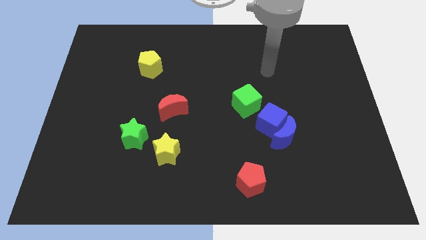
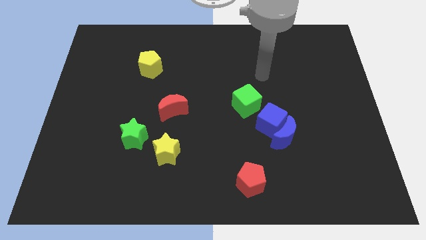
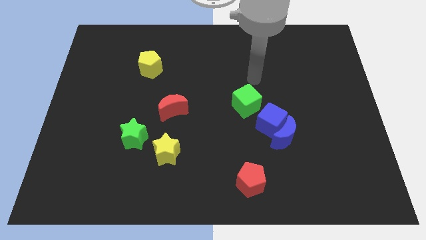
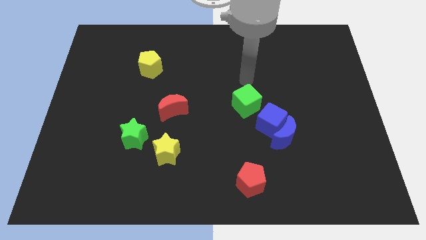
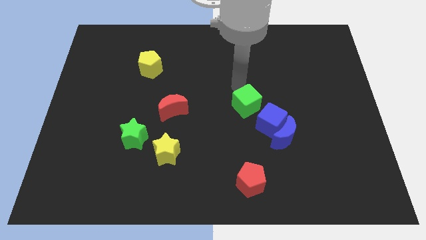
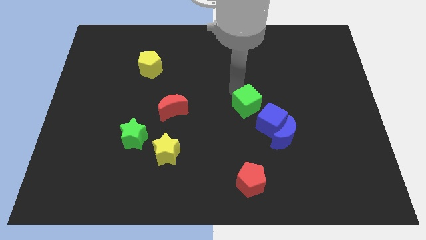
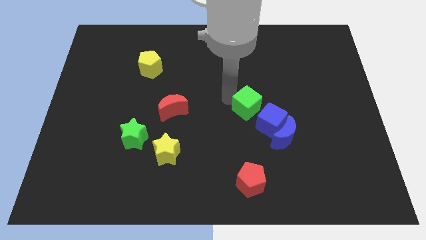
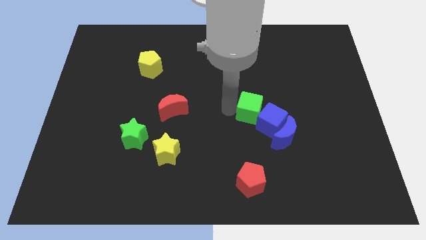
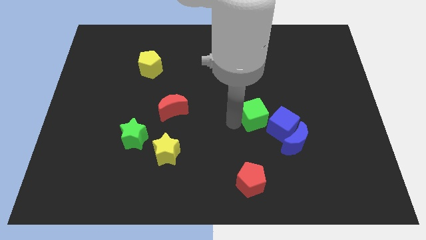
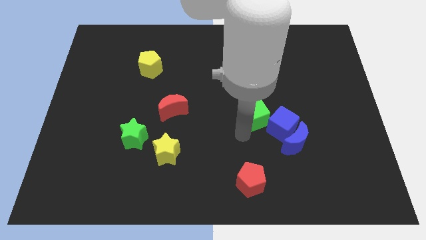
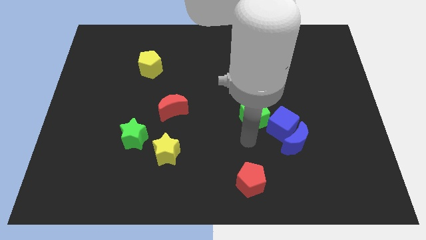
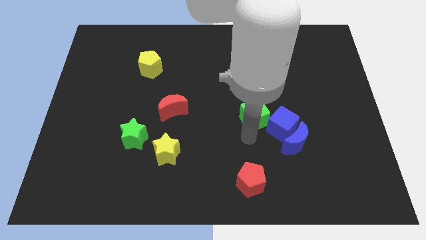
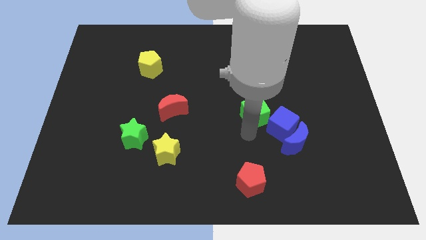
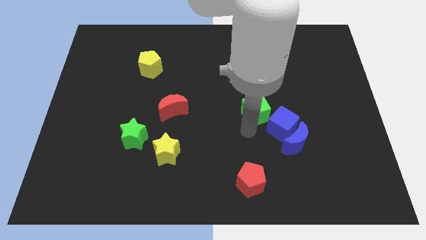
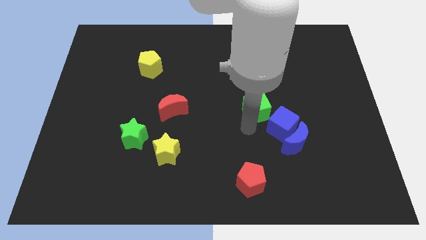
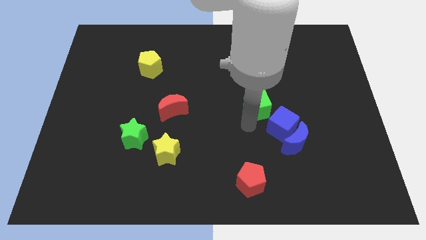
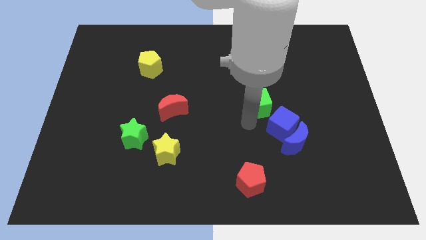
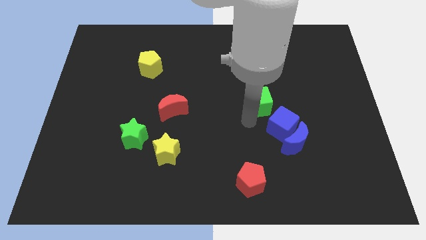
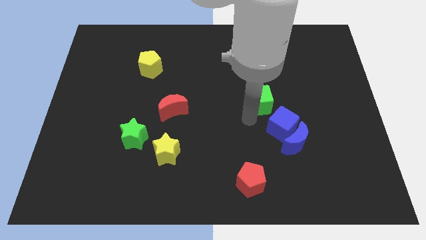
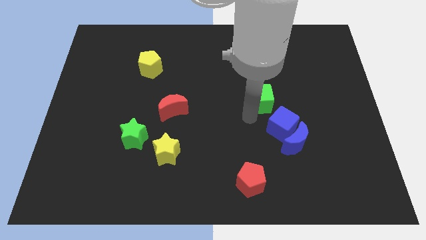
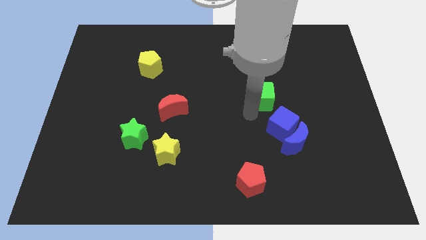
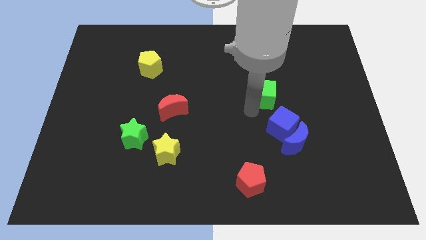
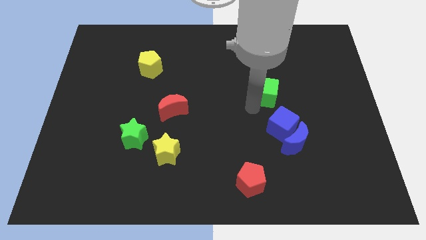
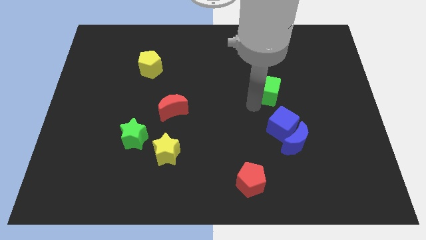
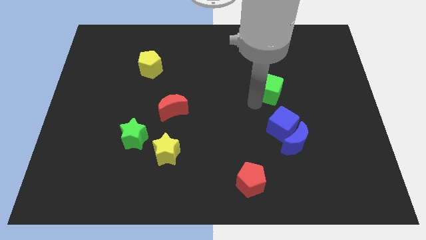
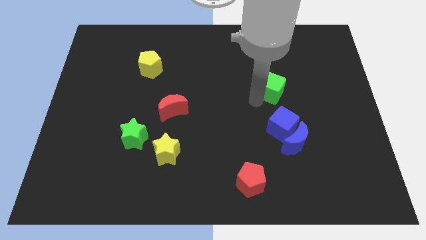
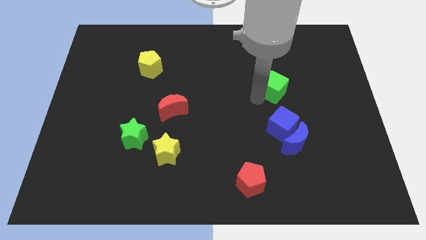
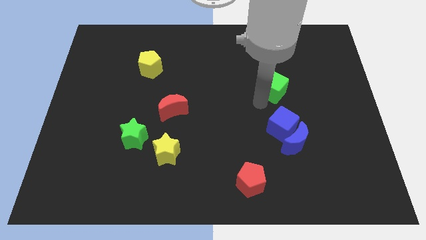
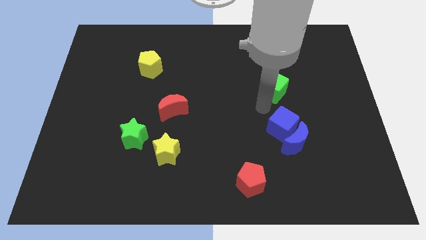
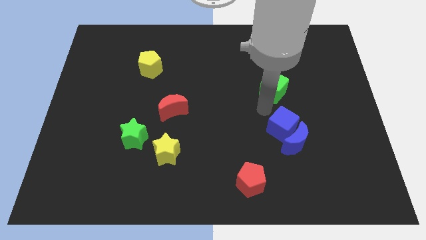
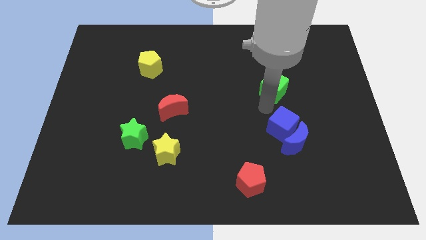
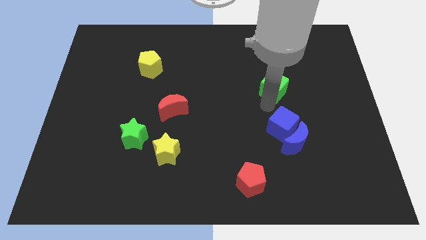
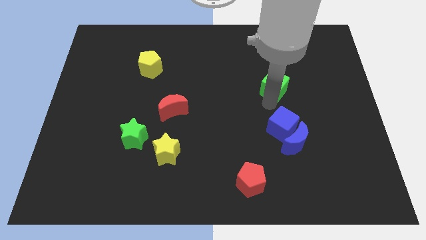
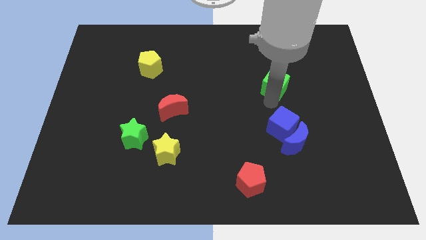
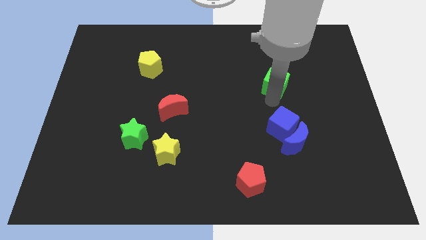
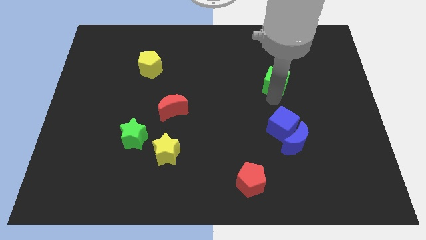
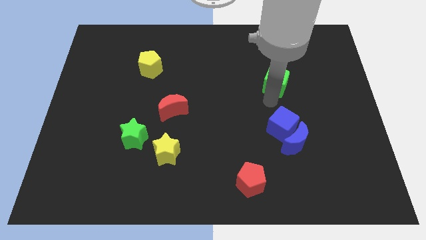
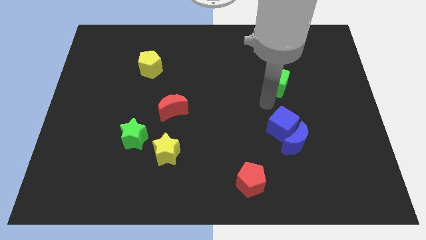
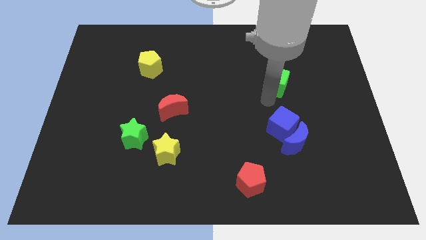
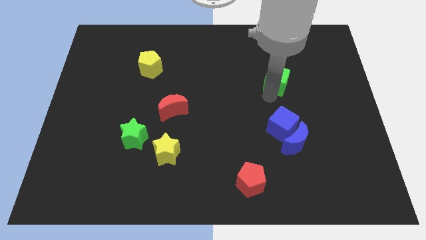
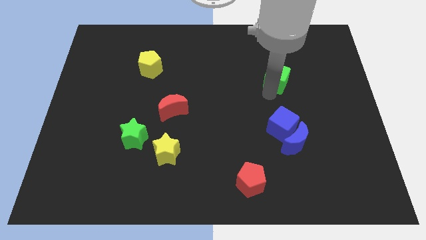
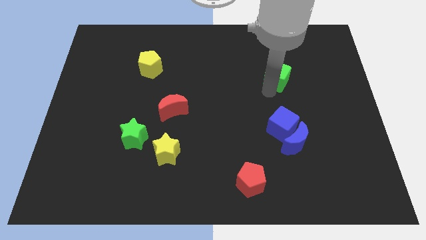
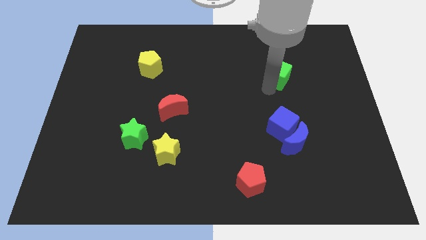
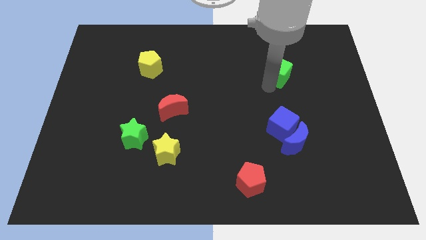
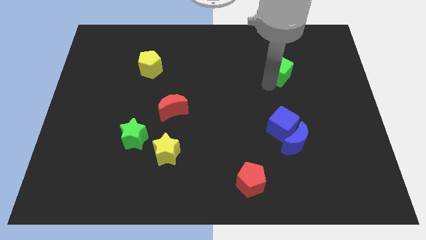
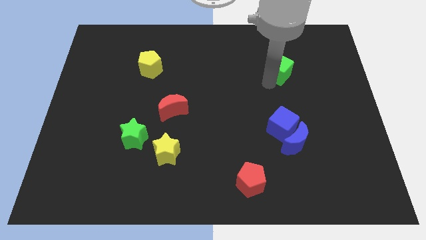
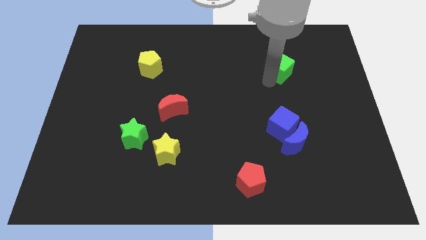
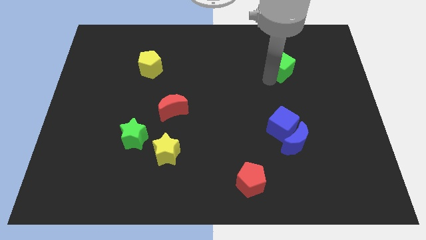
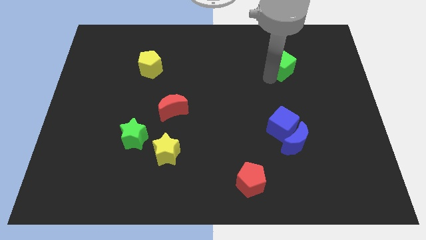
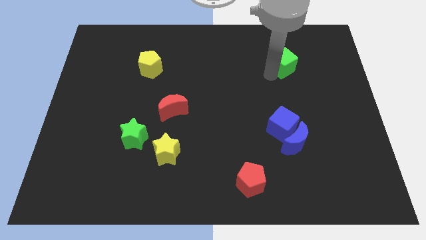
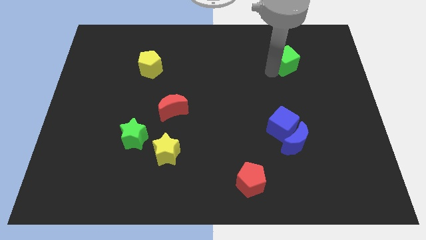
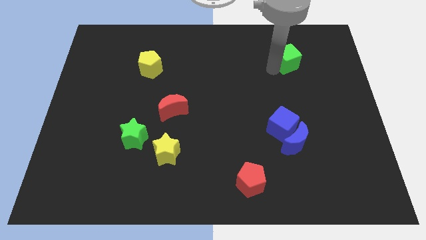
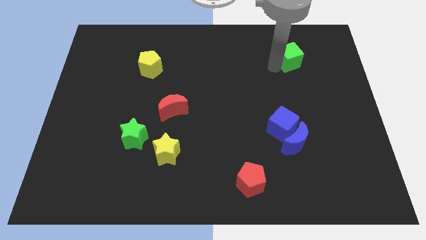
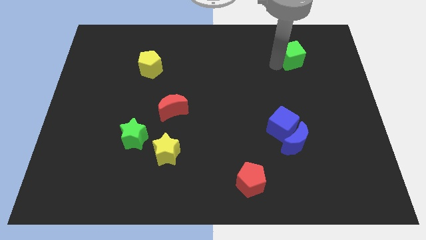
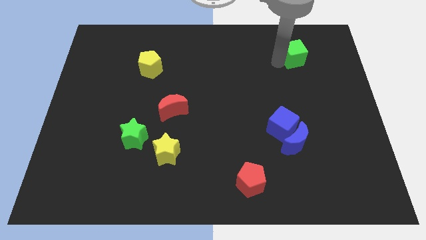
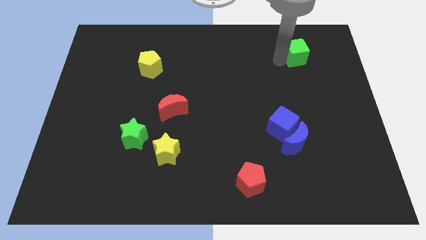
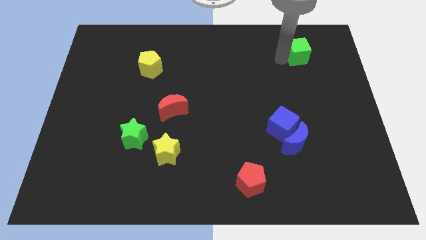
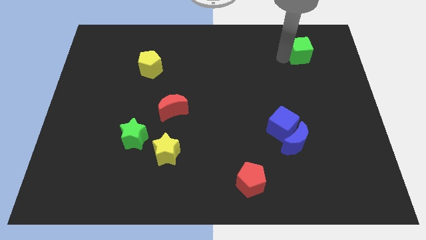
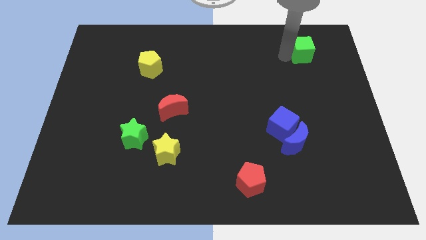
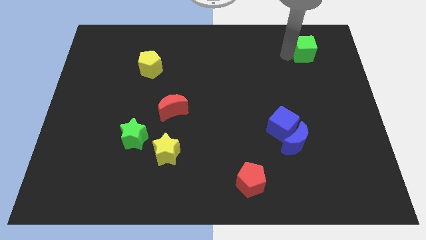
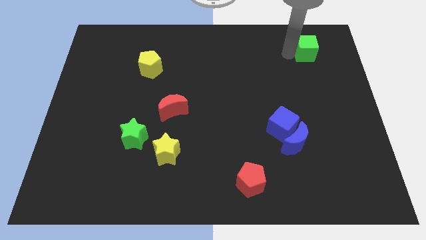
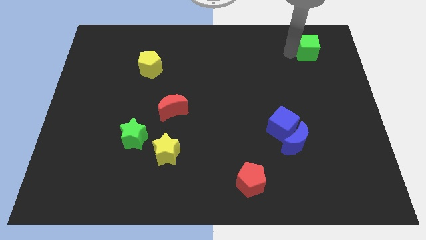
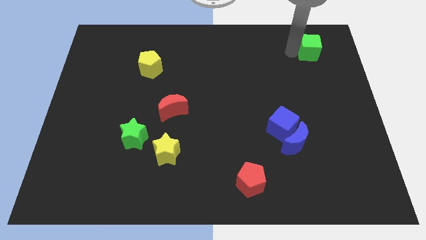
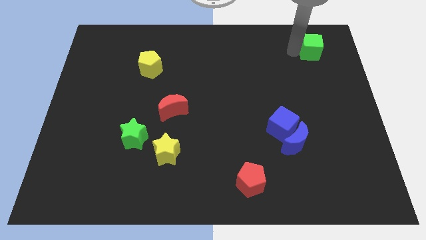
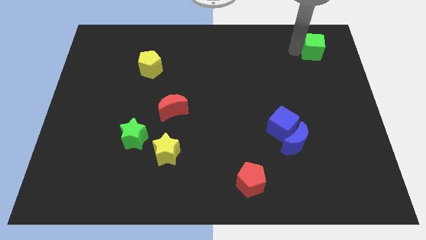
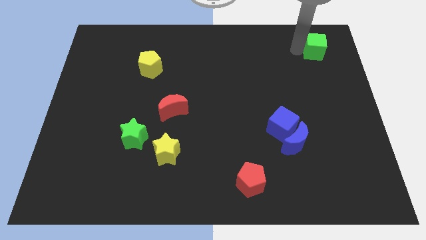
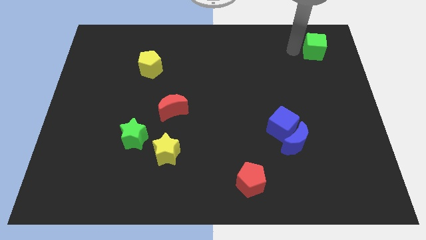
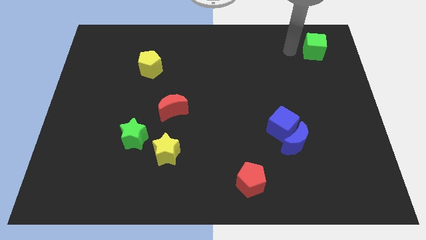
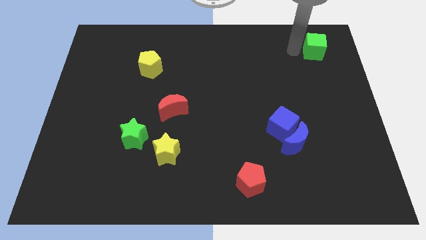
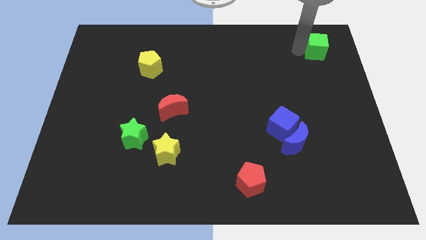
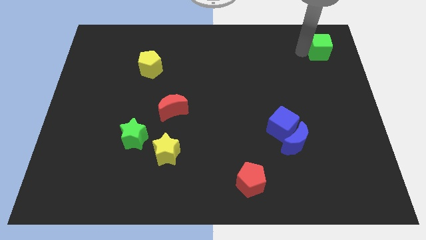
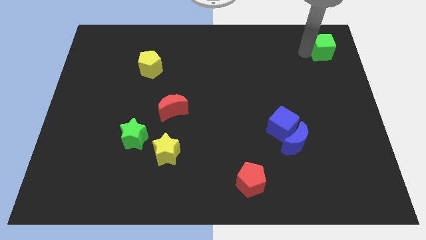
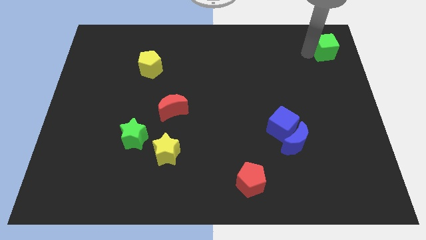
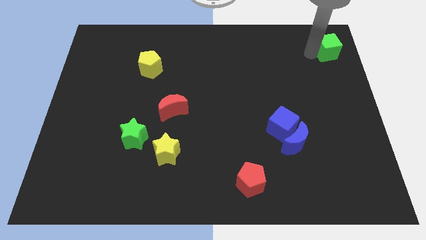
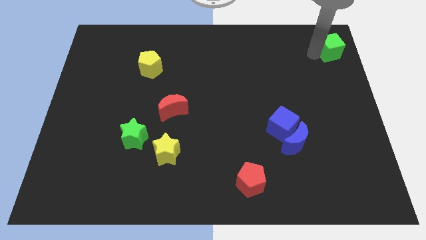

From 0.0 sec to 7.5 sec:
move the green cube to the top right of the board
